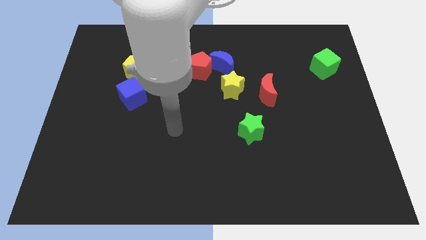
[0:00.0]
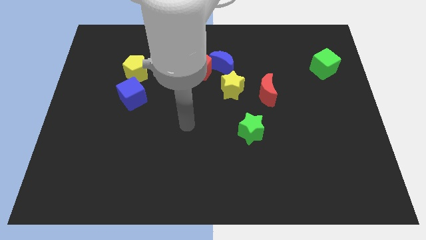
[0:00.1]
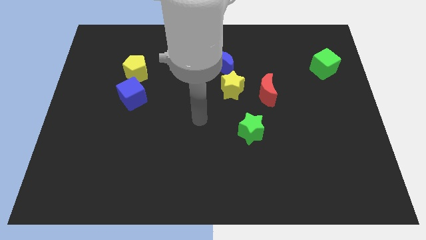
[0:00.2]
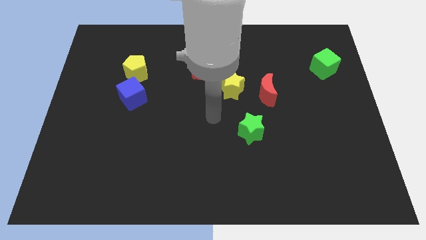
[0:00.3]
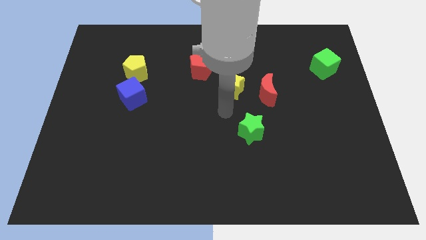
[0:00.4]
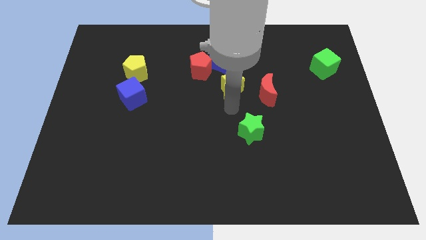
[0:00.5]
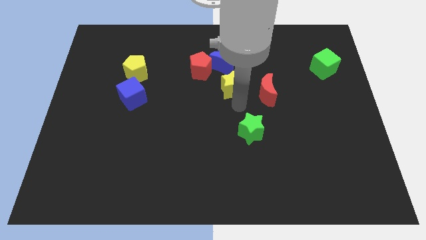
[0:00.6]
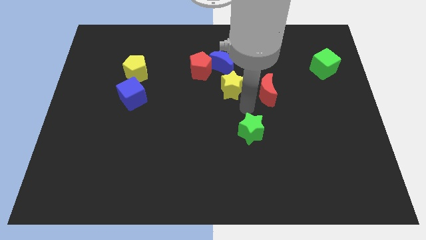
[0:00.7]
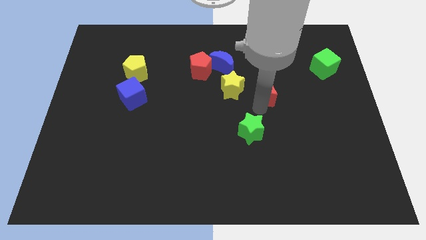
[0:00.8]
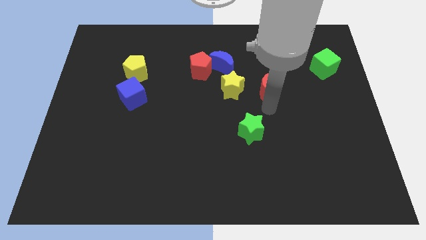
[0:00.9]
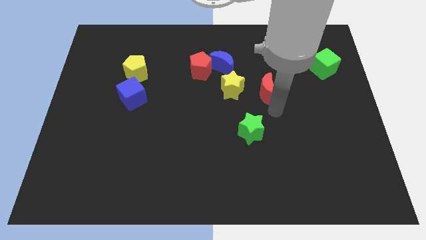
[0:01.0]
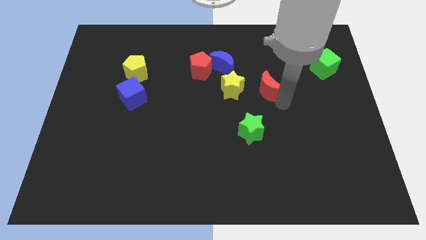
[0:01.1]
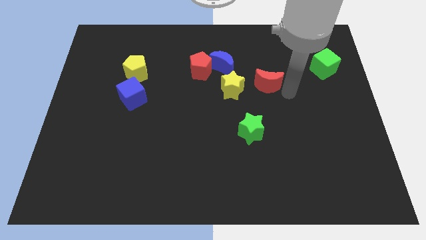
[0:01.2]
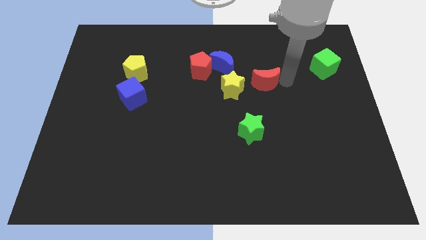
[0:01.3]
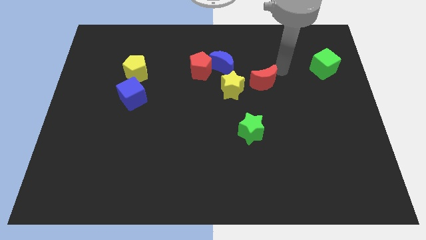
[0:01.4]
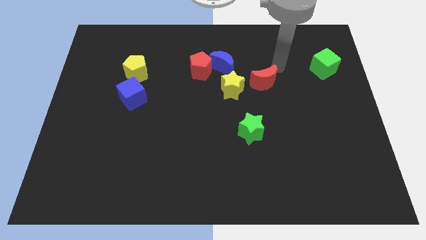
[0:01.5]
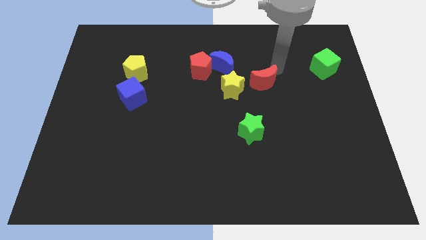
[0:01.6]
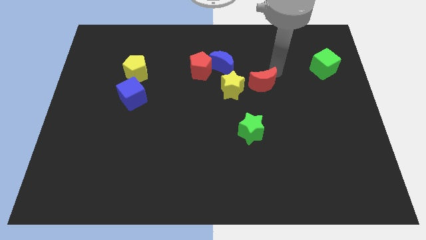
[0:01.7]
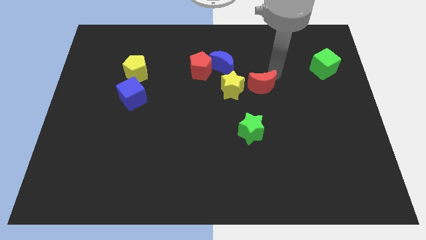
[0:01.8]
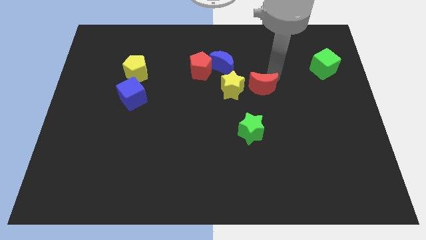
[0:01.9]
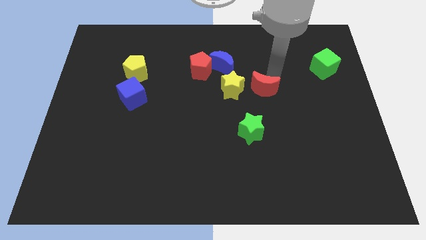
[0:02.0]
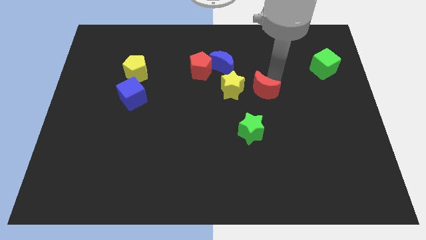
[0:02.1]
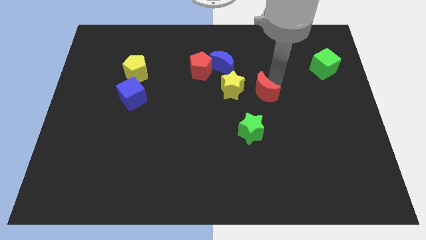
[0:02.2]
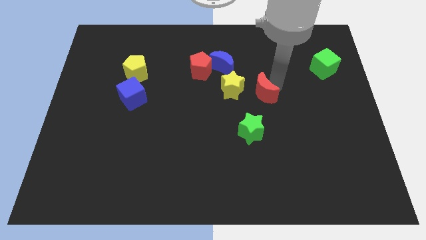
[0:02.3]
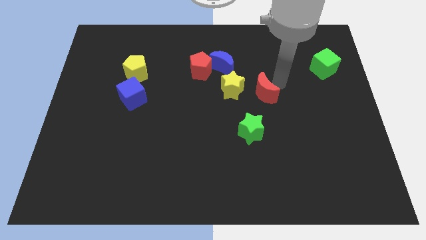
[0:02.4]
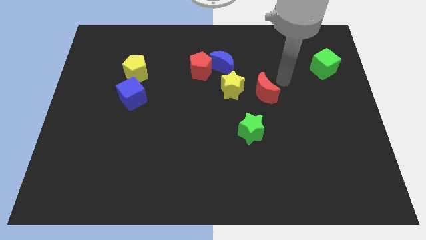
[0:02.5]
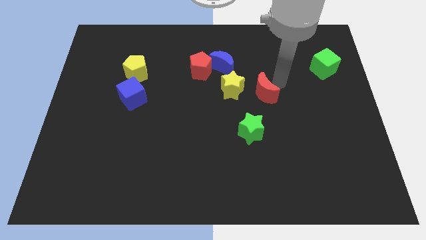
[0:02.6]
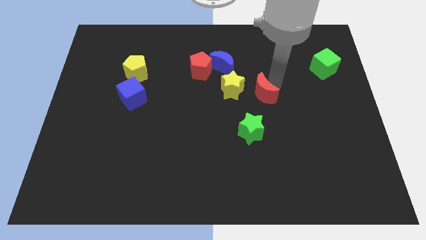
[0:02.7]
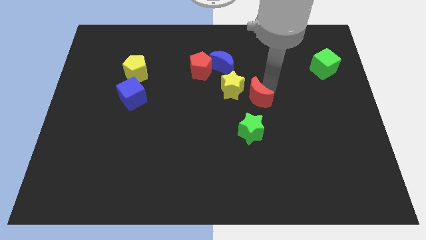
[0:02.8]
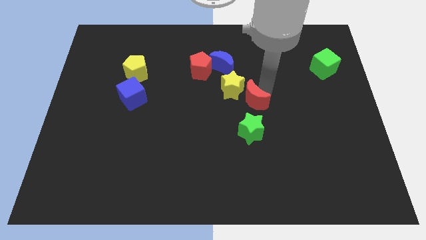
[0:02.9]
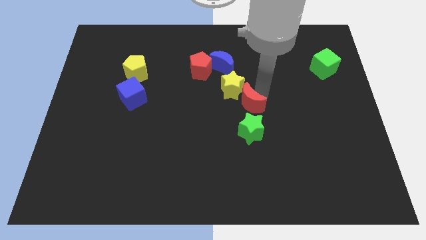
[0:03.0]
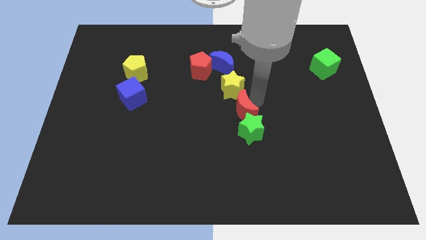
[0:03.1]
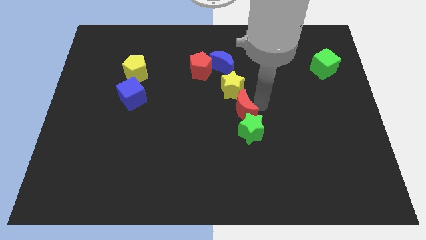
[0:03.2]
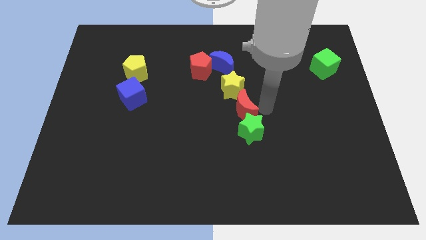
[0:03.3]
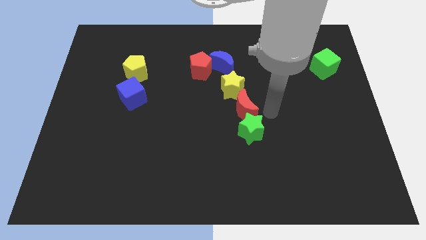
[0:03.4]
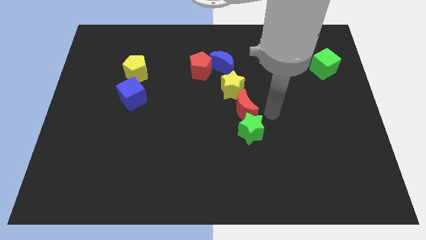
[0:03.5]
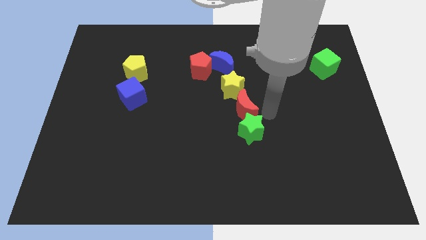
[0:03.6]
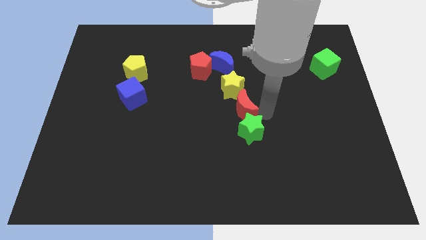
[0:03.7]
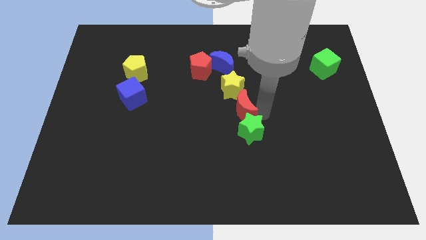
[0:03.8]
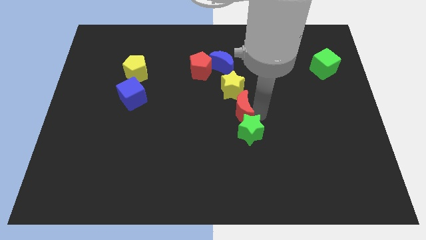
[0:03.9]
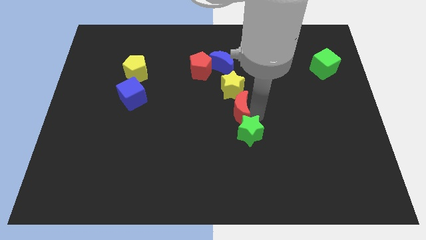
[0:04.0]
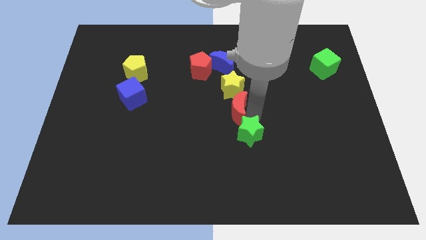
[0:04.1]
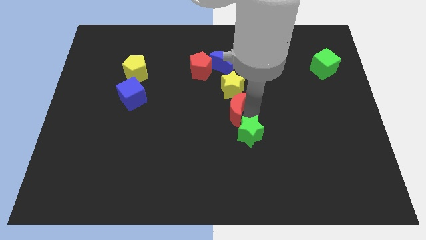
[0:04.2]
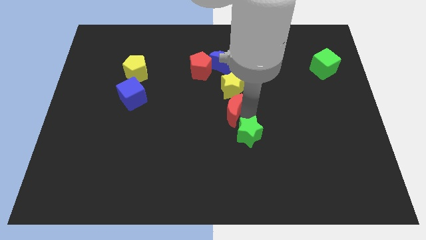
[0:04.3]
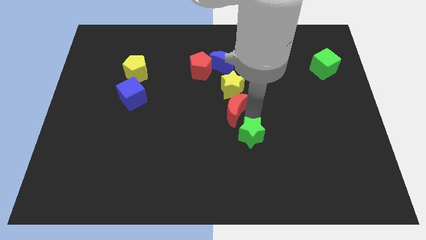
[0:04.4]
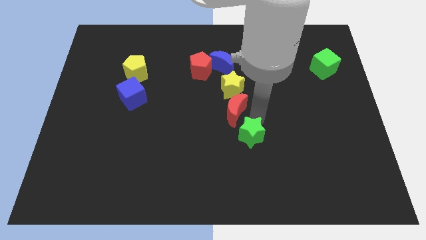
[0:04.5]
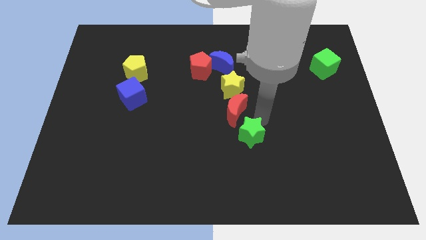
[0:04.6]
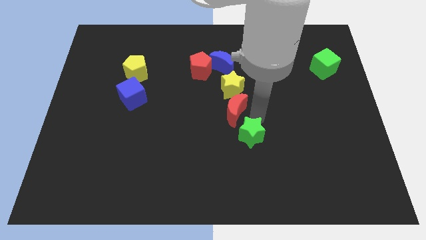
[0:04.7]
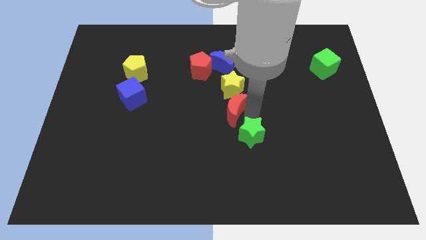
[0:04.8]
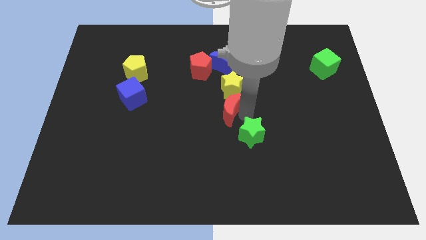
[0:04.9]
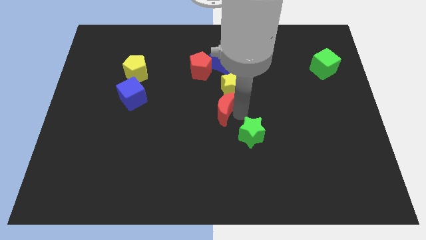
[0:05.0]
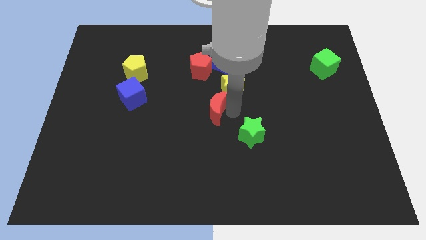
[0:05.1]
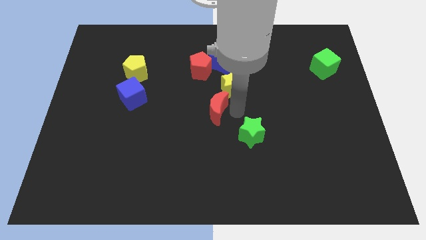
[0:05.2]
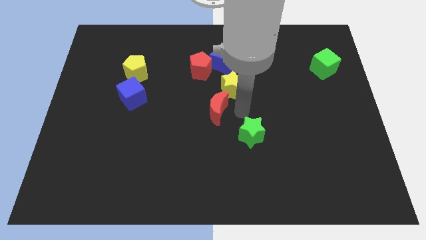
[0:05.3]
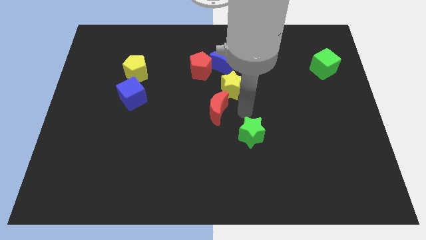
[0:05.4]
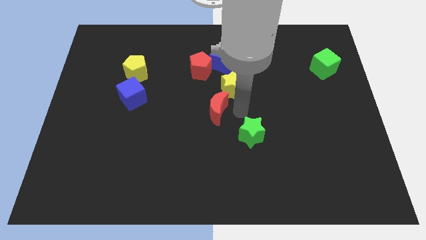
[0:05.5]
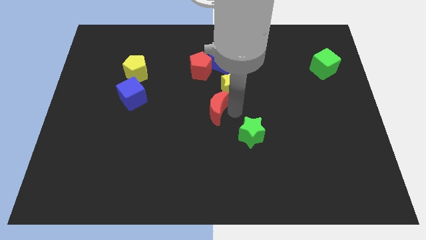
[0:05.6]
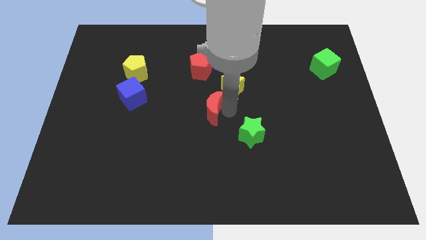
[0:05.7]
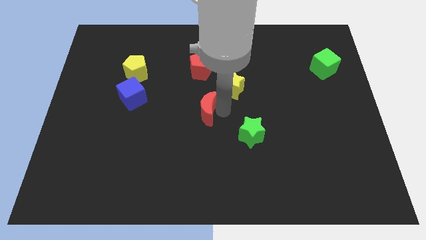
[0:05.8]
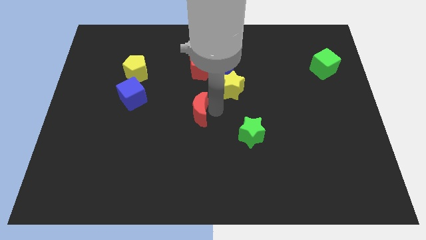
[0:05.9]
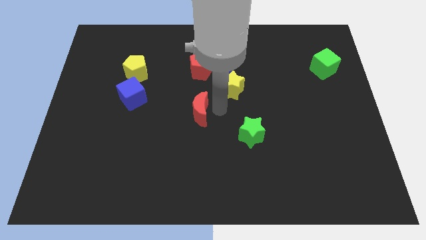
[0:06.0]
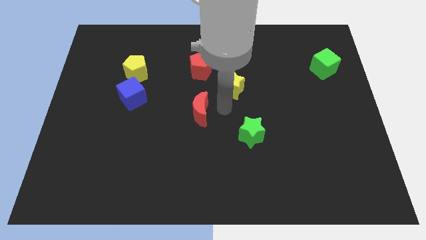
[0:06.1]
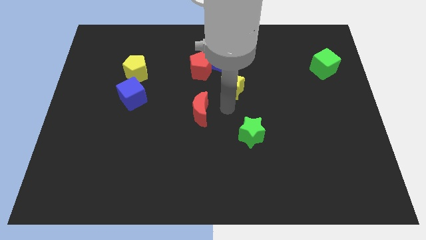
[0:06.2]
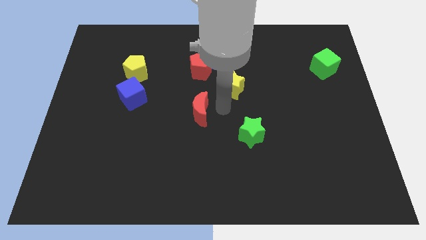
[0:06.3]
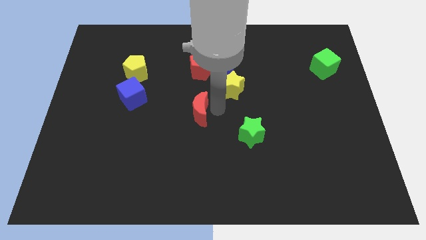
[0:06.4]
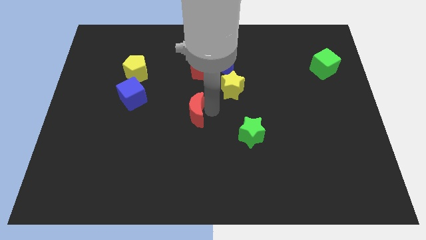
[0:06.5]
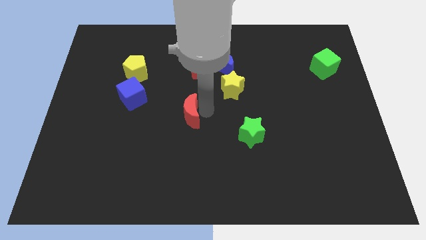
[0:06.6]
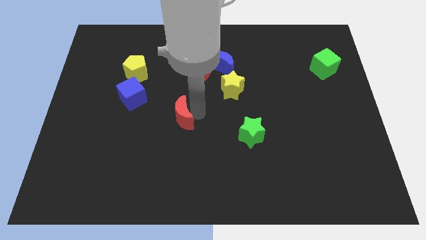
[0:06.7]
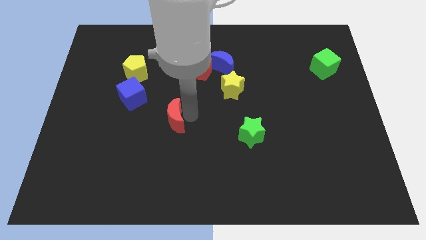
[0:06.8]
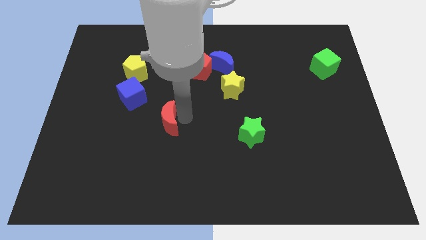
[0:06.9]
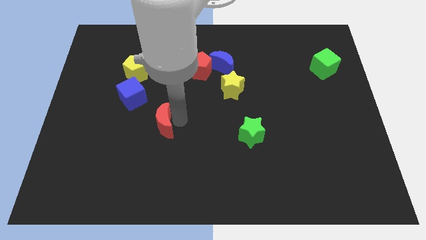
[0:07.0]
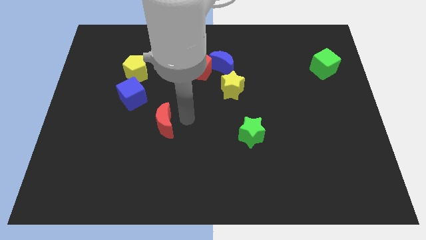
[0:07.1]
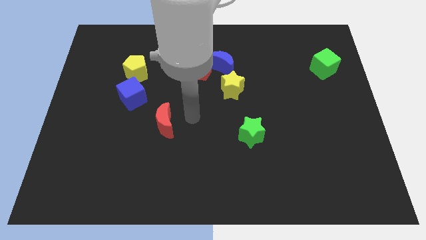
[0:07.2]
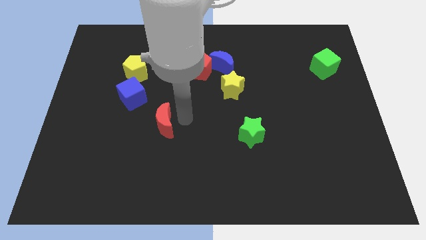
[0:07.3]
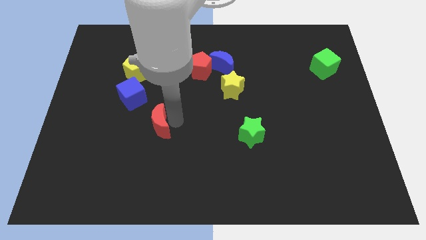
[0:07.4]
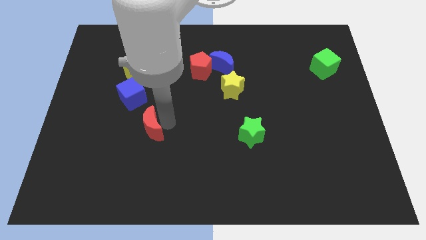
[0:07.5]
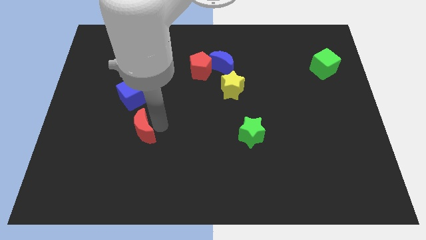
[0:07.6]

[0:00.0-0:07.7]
put the red moon below the blue cube
